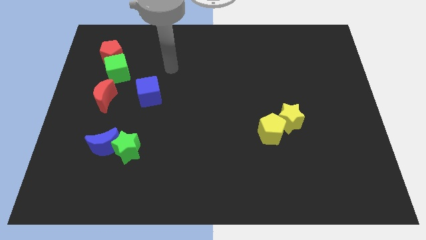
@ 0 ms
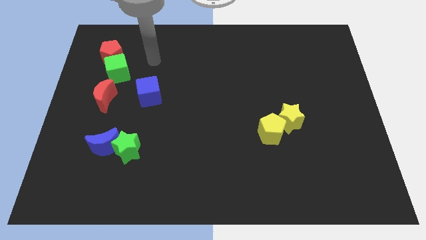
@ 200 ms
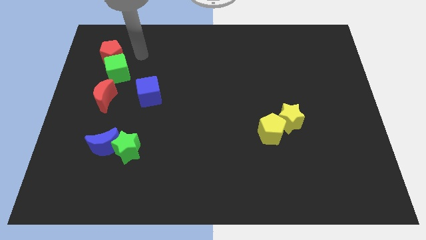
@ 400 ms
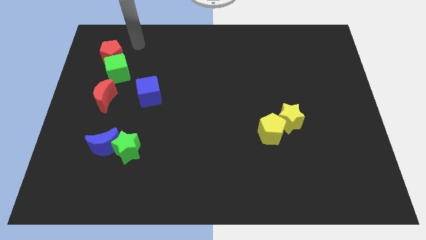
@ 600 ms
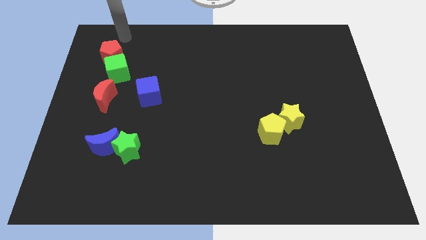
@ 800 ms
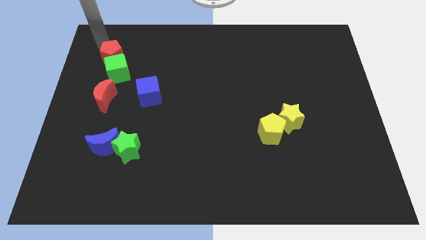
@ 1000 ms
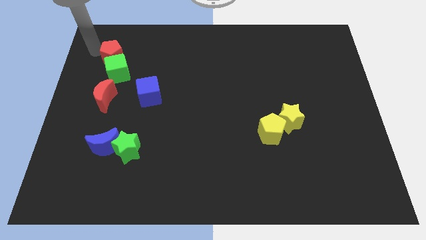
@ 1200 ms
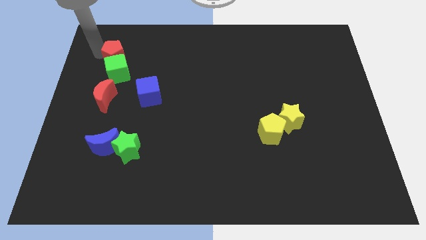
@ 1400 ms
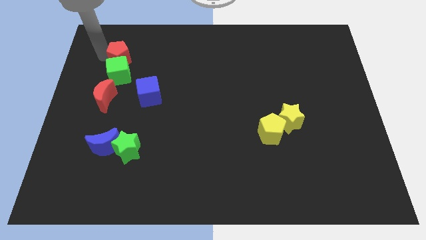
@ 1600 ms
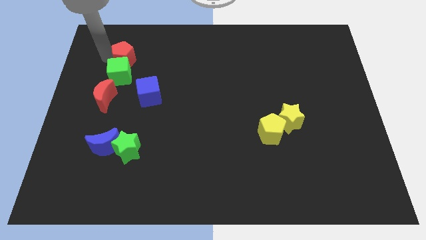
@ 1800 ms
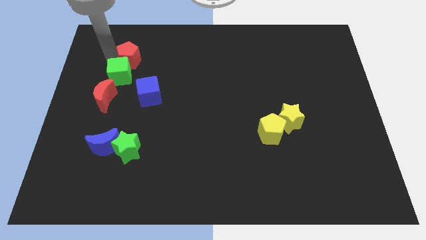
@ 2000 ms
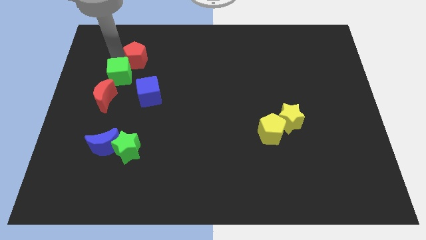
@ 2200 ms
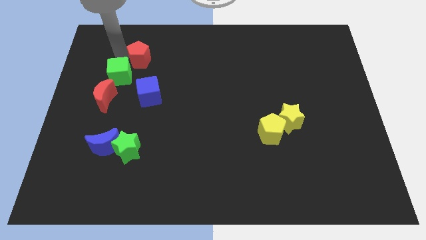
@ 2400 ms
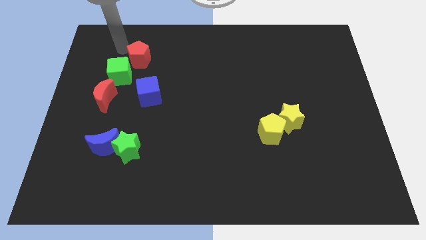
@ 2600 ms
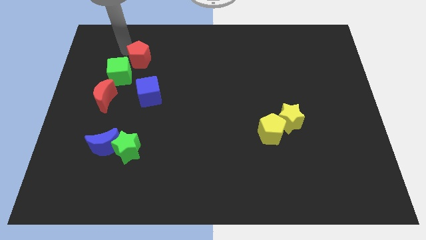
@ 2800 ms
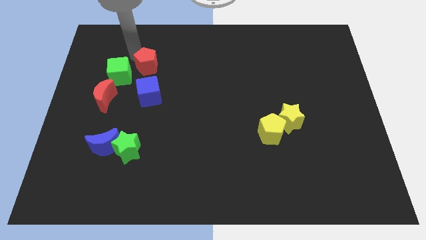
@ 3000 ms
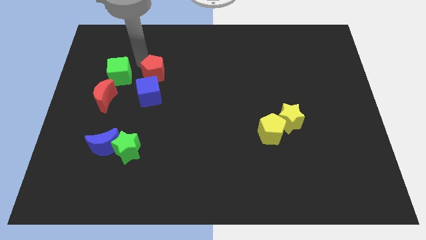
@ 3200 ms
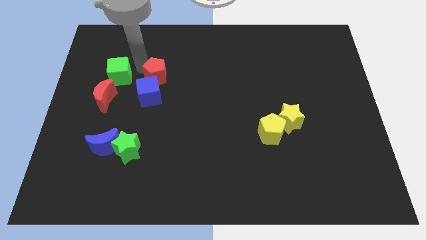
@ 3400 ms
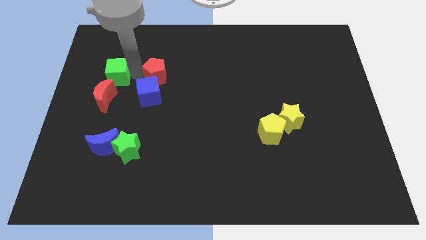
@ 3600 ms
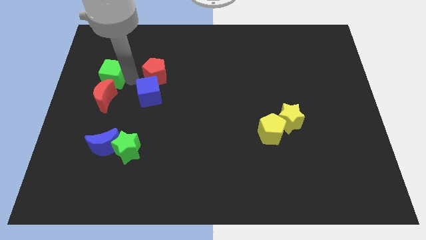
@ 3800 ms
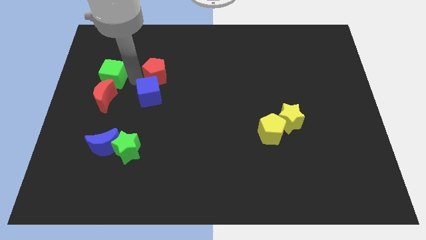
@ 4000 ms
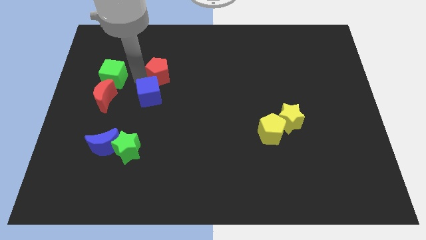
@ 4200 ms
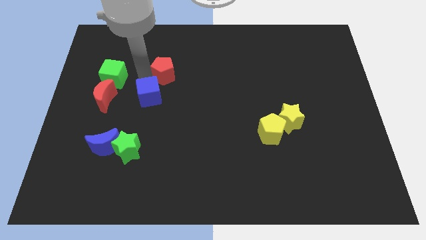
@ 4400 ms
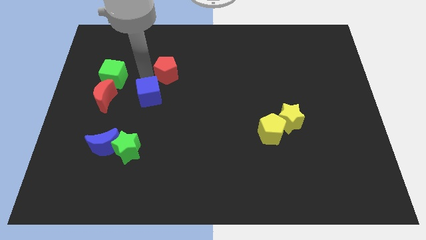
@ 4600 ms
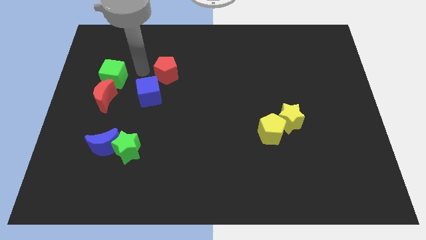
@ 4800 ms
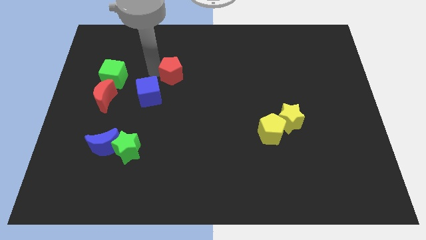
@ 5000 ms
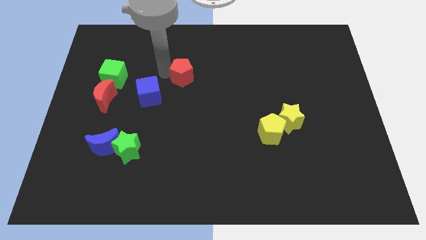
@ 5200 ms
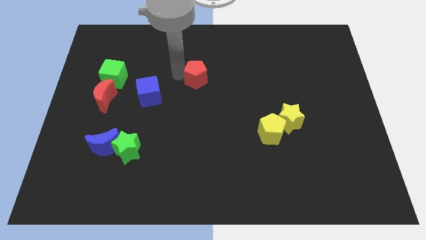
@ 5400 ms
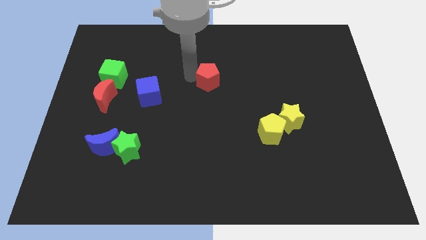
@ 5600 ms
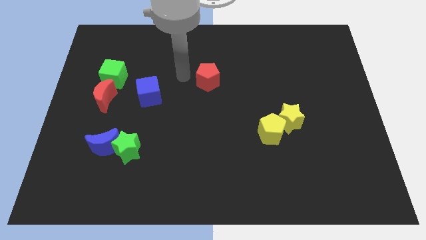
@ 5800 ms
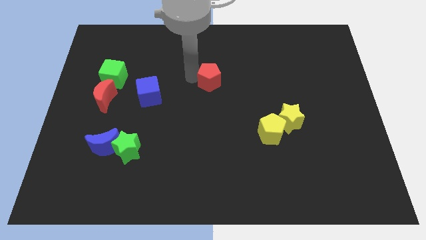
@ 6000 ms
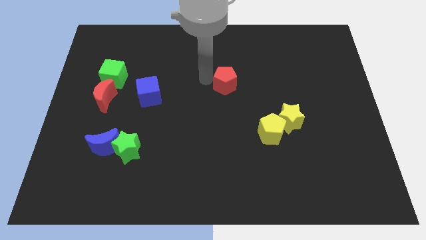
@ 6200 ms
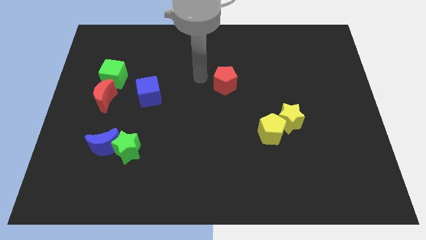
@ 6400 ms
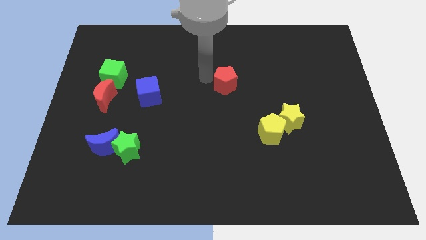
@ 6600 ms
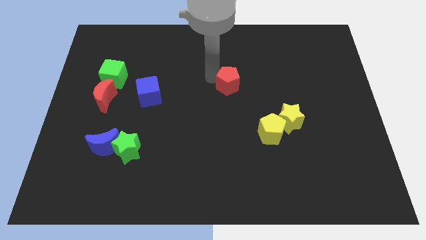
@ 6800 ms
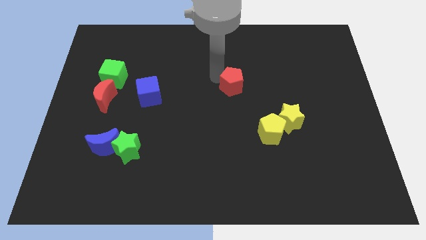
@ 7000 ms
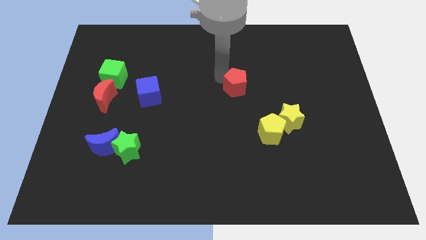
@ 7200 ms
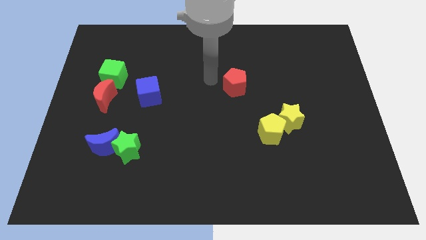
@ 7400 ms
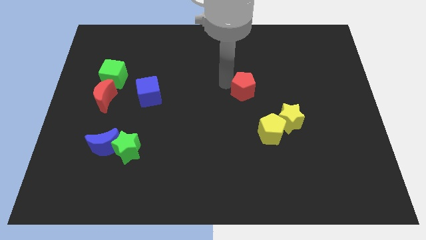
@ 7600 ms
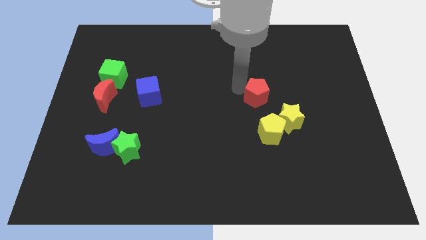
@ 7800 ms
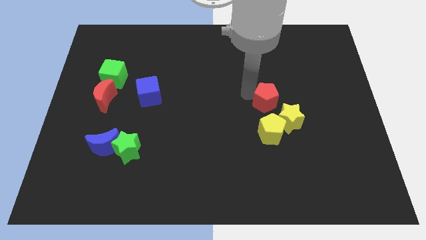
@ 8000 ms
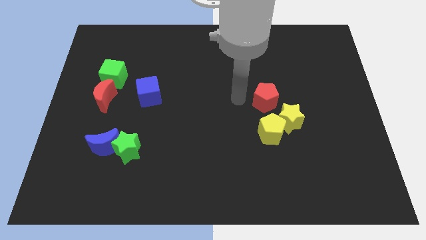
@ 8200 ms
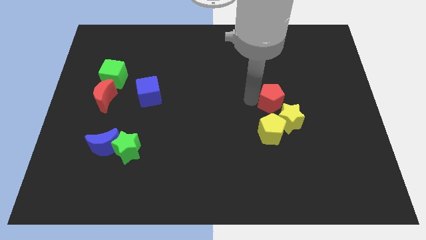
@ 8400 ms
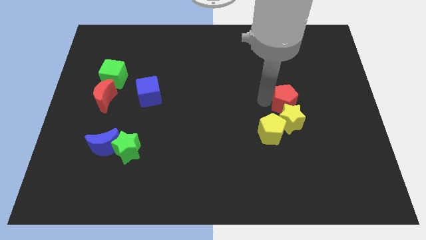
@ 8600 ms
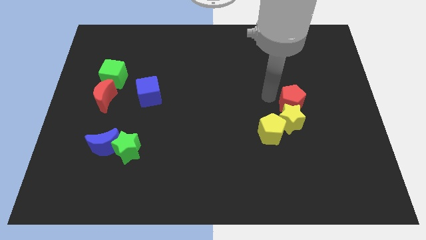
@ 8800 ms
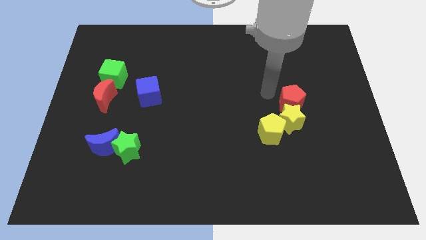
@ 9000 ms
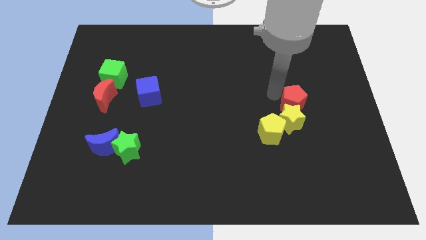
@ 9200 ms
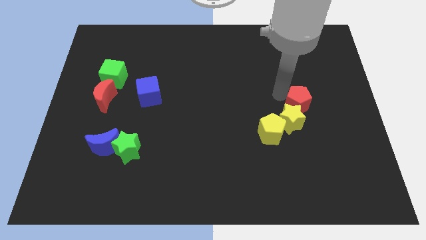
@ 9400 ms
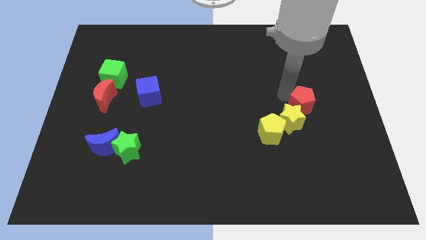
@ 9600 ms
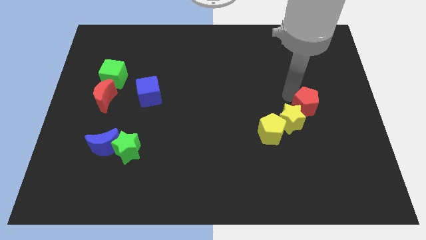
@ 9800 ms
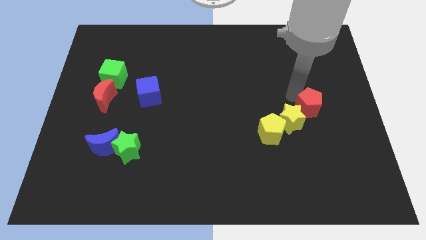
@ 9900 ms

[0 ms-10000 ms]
slide the red pentagon to the right of the yellow star

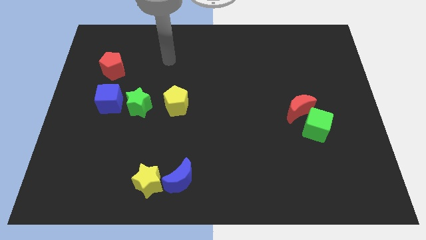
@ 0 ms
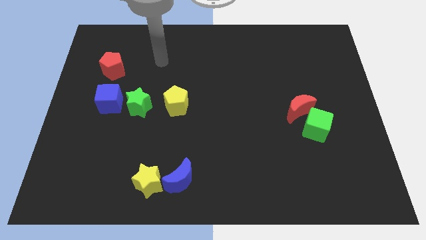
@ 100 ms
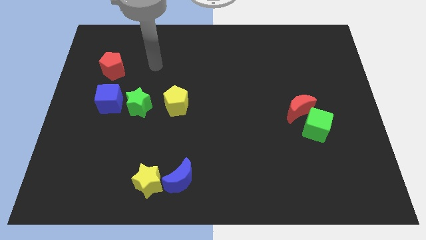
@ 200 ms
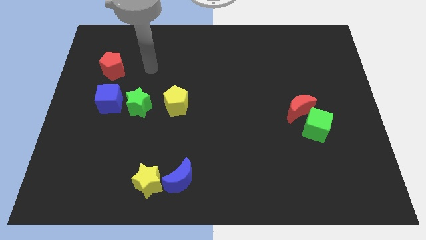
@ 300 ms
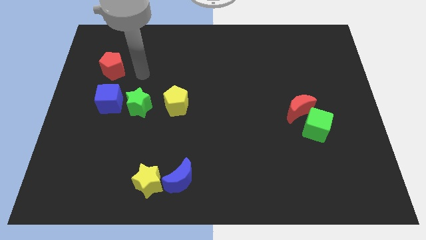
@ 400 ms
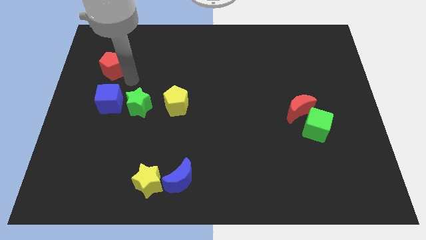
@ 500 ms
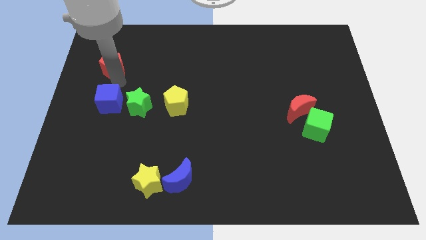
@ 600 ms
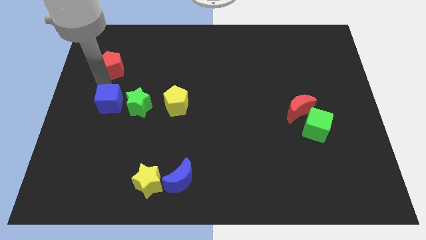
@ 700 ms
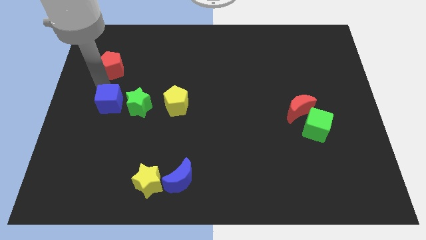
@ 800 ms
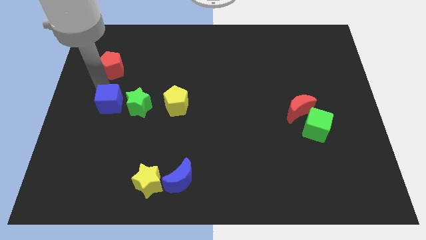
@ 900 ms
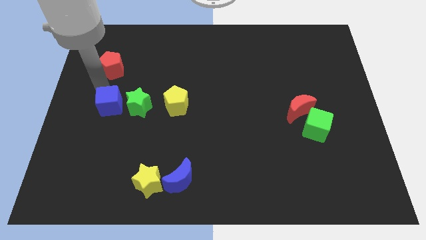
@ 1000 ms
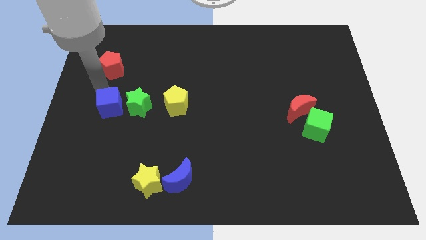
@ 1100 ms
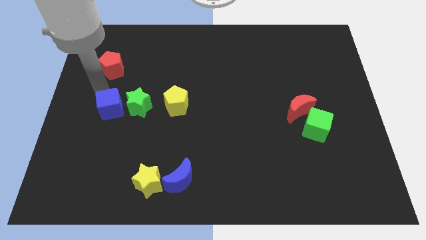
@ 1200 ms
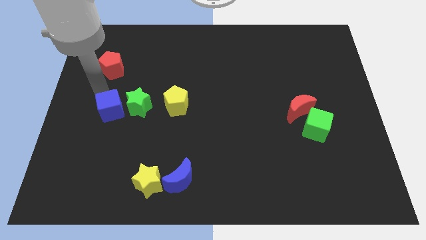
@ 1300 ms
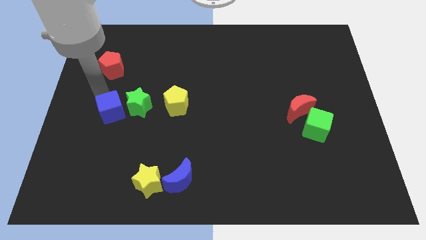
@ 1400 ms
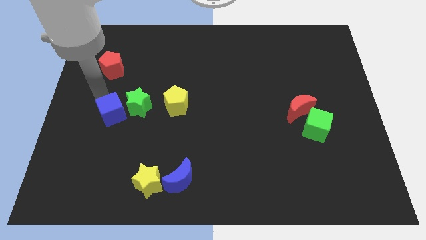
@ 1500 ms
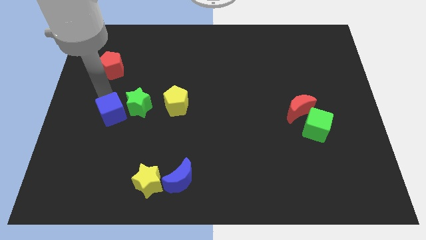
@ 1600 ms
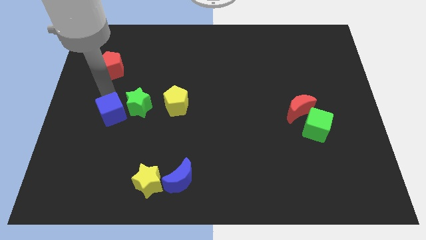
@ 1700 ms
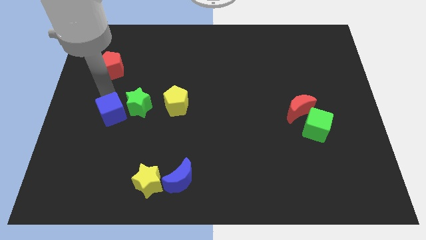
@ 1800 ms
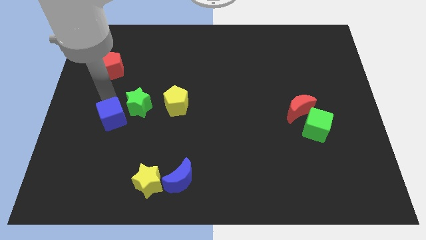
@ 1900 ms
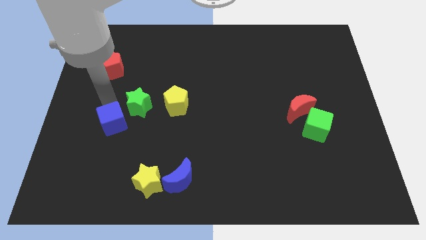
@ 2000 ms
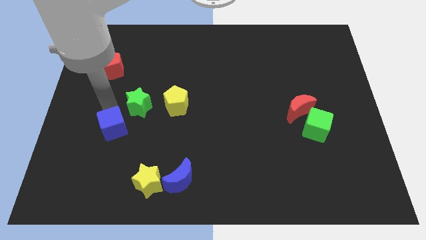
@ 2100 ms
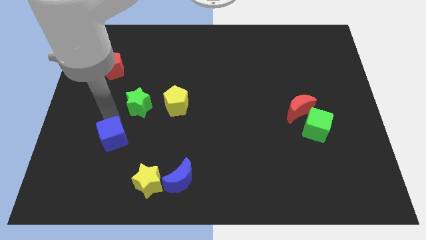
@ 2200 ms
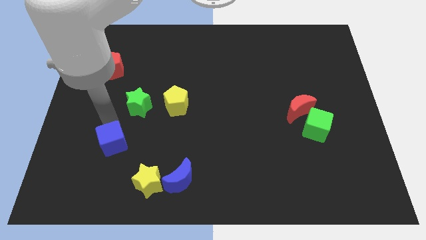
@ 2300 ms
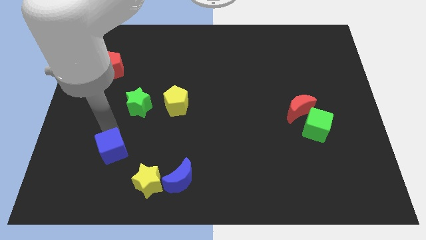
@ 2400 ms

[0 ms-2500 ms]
slide the blue cube diagonally up and to the left of the yellow star
